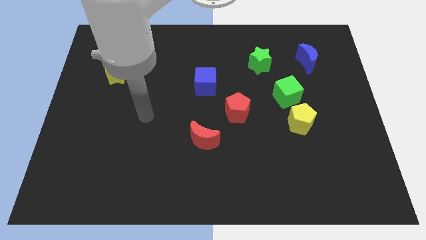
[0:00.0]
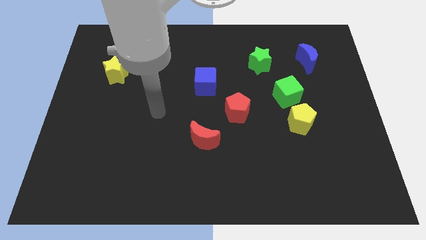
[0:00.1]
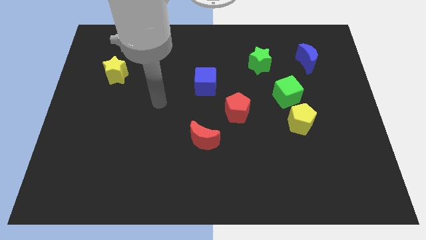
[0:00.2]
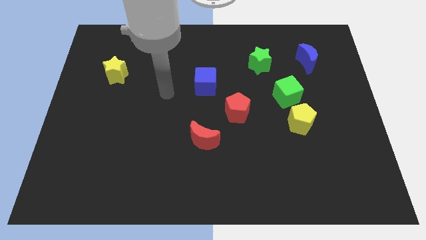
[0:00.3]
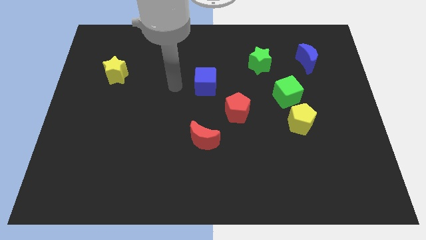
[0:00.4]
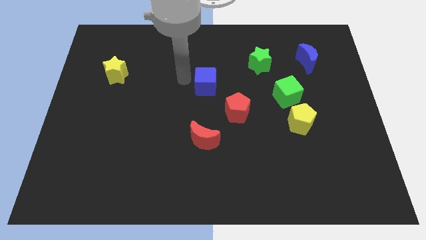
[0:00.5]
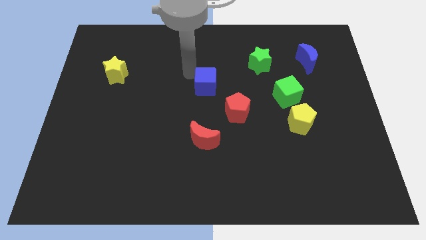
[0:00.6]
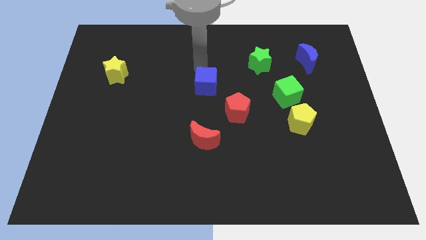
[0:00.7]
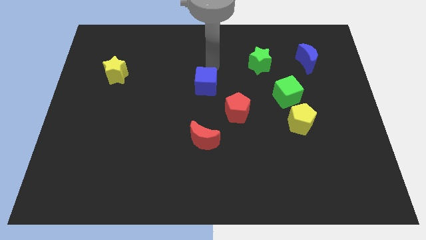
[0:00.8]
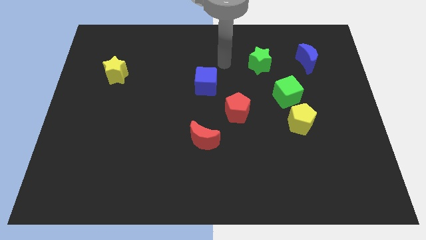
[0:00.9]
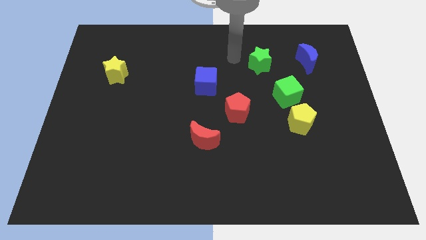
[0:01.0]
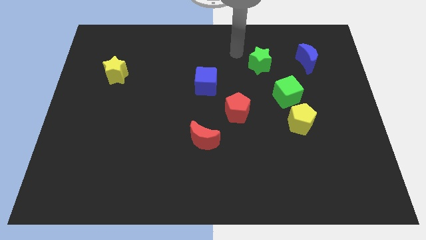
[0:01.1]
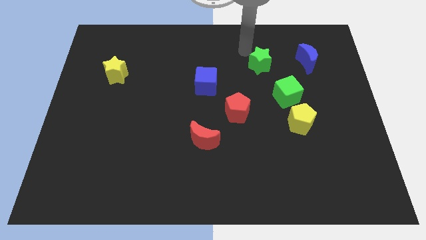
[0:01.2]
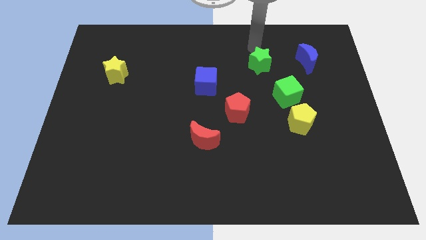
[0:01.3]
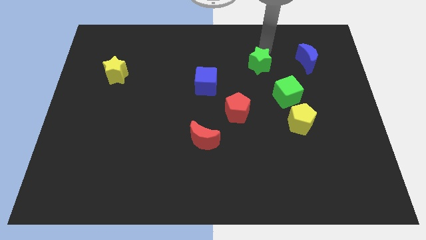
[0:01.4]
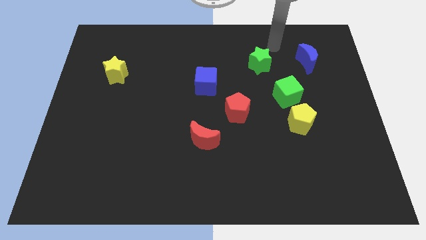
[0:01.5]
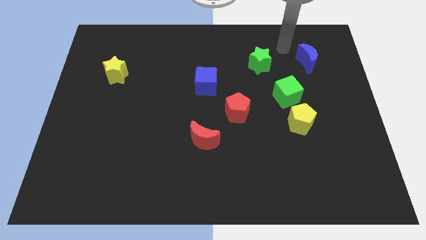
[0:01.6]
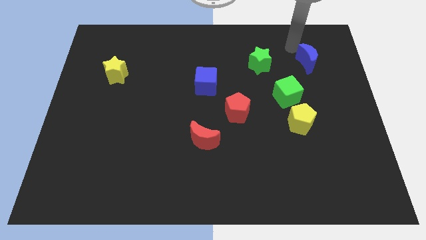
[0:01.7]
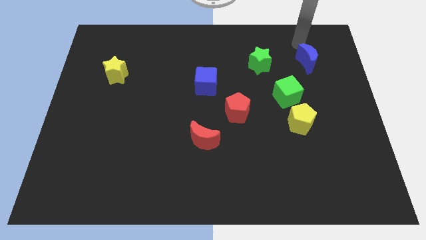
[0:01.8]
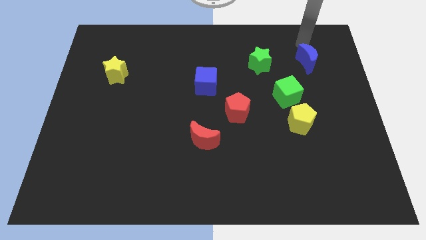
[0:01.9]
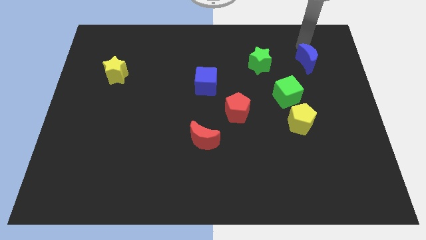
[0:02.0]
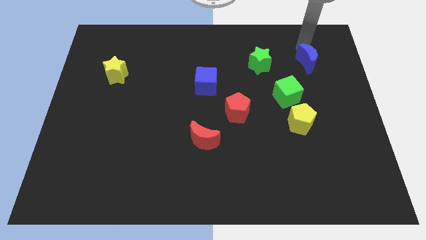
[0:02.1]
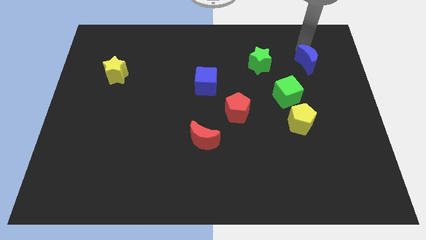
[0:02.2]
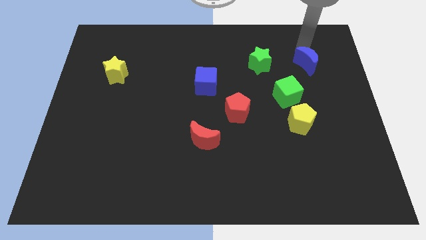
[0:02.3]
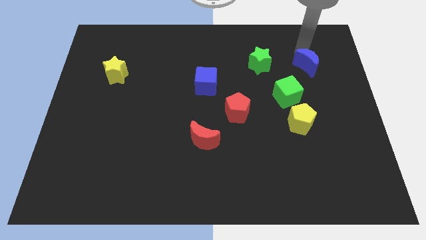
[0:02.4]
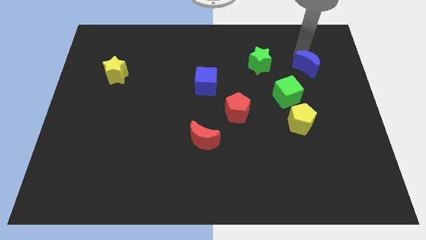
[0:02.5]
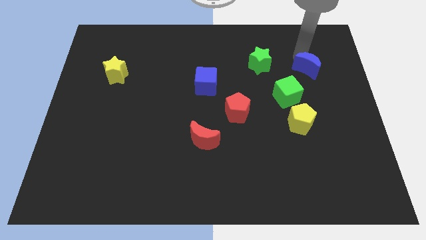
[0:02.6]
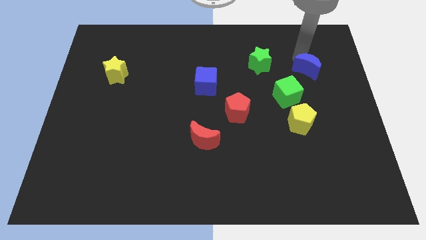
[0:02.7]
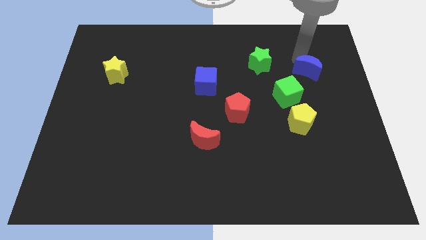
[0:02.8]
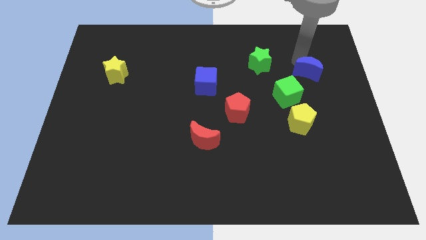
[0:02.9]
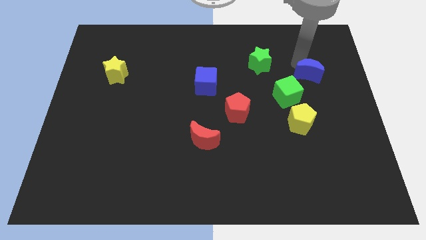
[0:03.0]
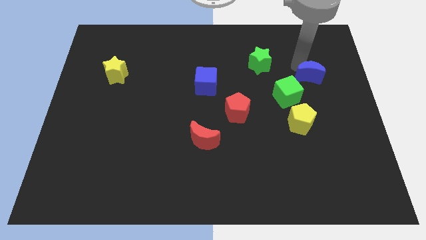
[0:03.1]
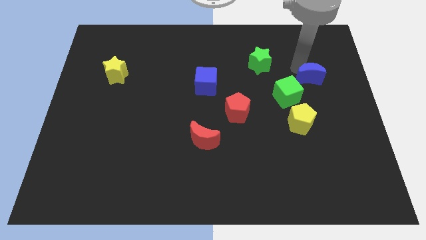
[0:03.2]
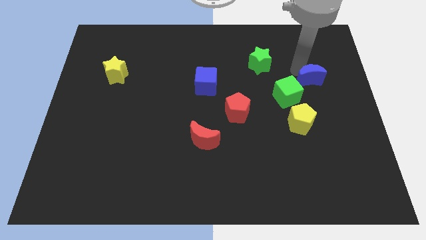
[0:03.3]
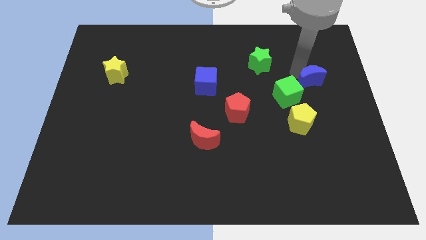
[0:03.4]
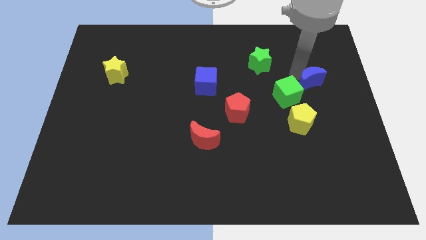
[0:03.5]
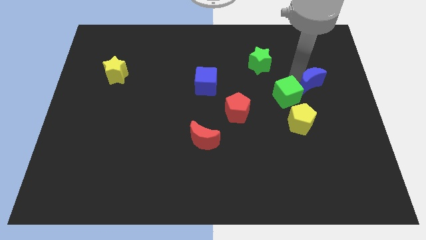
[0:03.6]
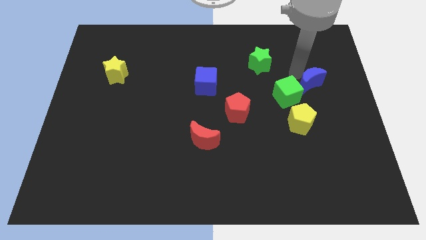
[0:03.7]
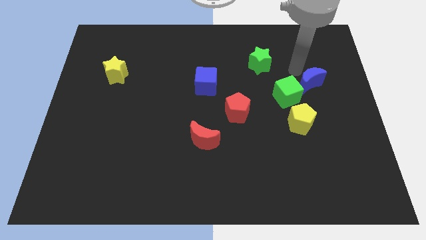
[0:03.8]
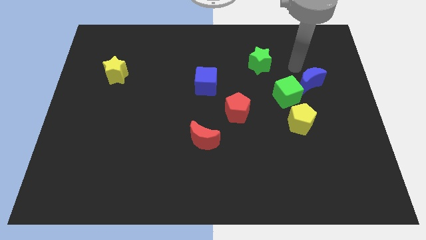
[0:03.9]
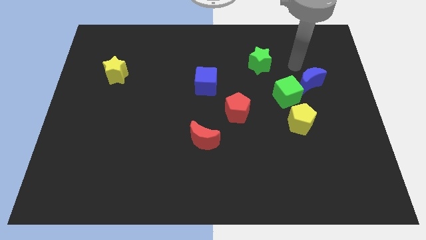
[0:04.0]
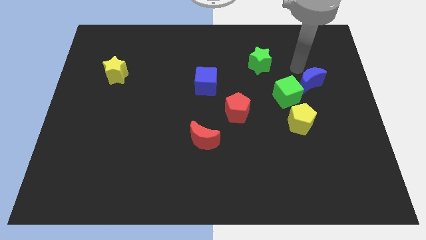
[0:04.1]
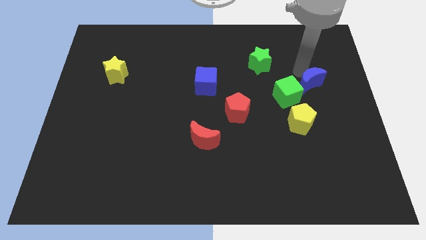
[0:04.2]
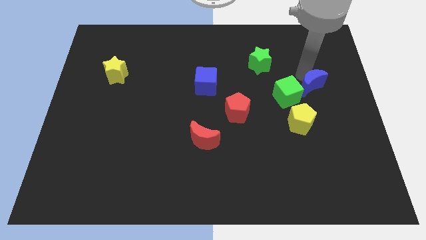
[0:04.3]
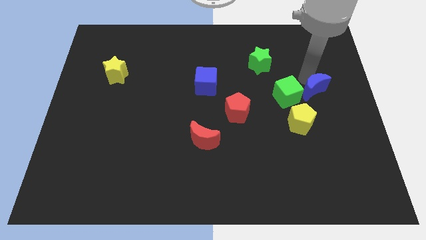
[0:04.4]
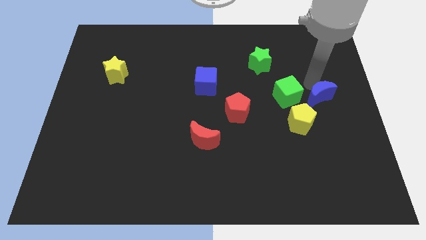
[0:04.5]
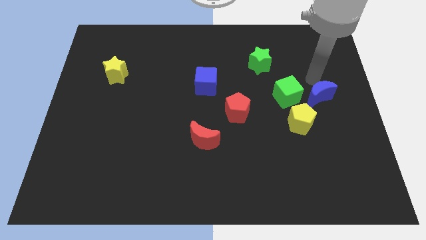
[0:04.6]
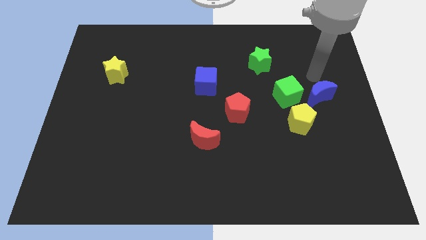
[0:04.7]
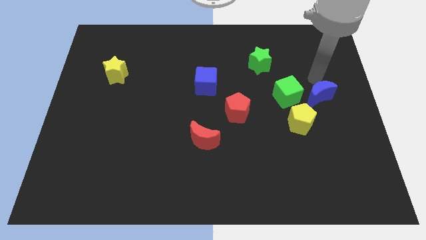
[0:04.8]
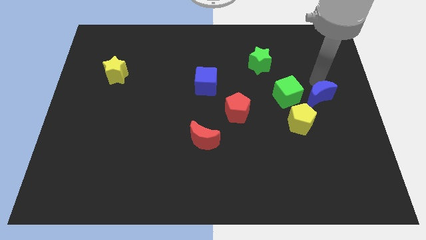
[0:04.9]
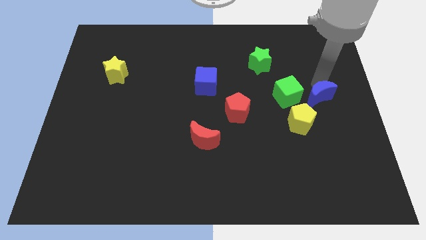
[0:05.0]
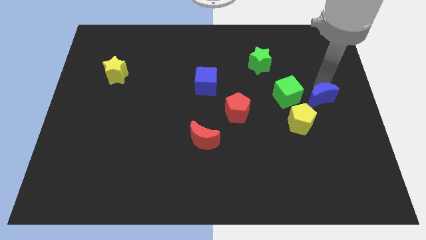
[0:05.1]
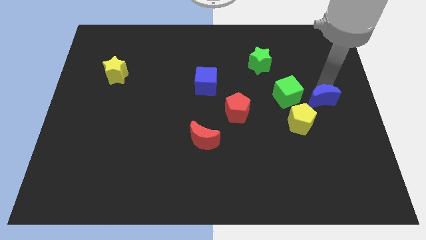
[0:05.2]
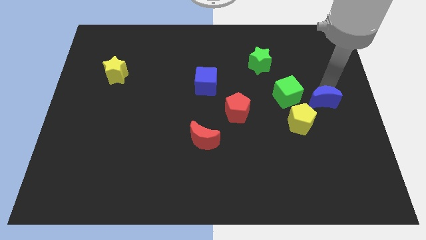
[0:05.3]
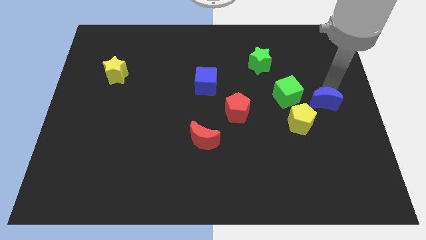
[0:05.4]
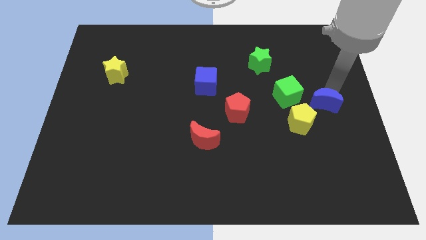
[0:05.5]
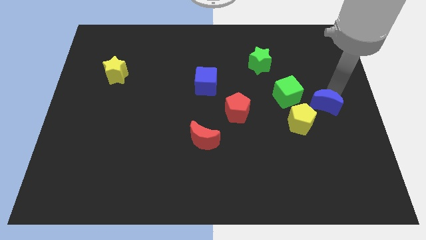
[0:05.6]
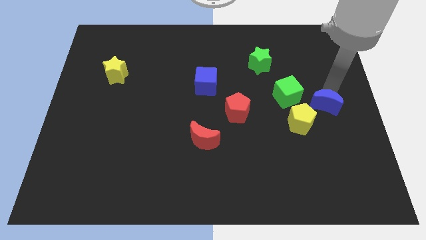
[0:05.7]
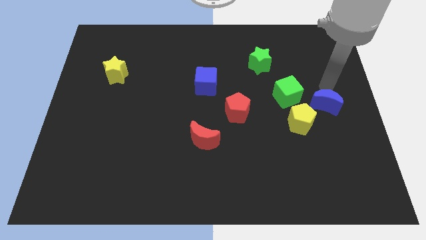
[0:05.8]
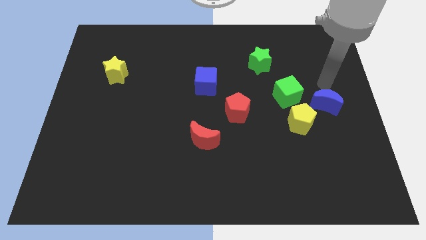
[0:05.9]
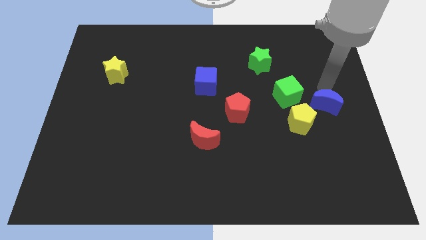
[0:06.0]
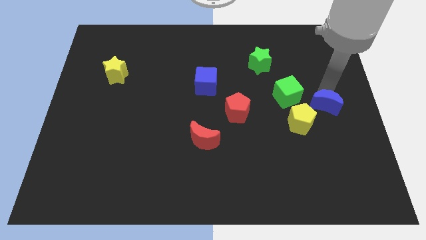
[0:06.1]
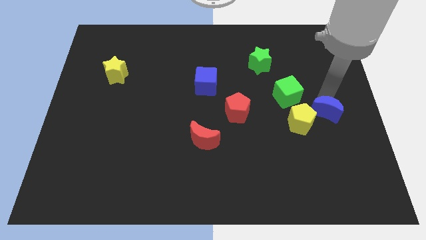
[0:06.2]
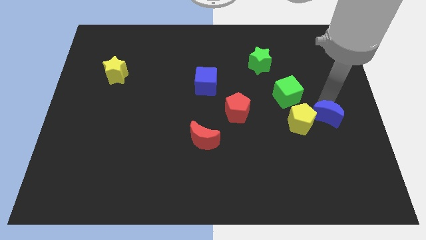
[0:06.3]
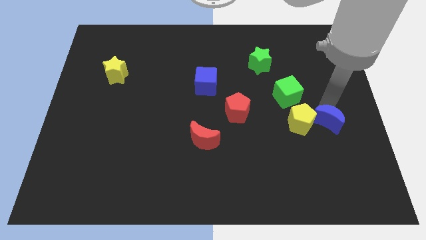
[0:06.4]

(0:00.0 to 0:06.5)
move the blue moon to the bottom right of the yellow pentagon

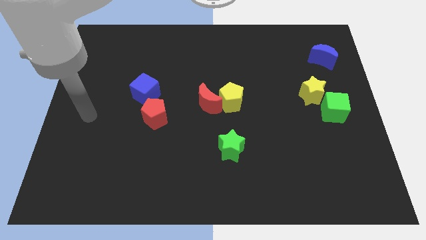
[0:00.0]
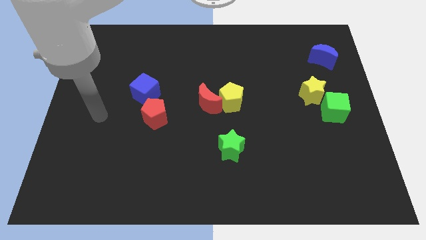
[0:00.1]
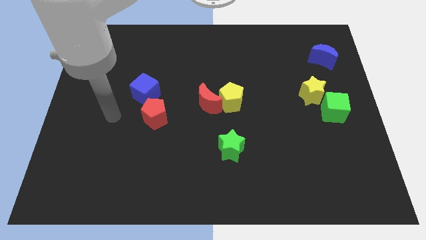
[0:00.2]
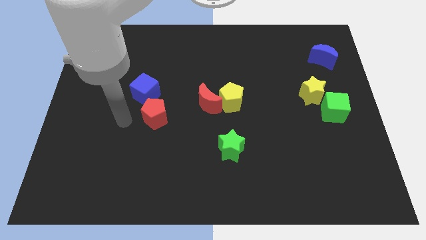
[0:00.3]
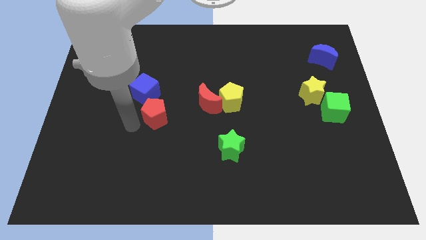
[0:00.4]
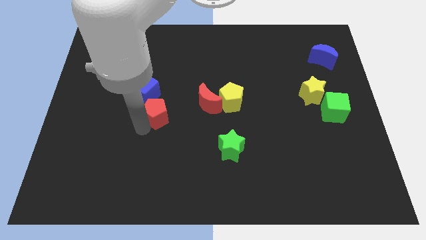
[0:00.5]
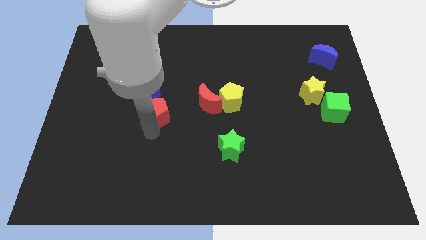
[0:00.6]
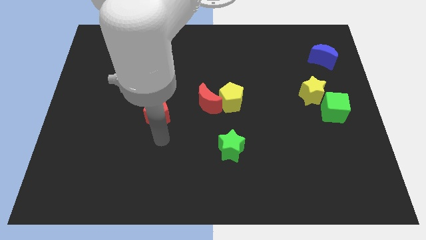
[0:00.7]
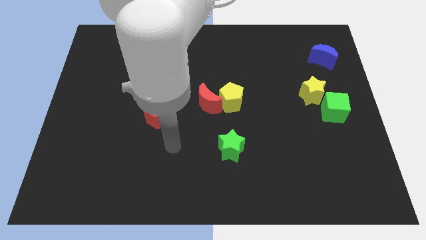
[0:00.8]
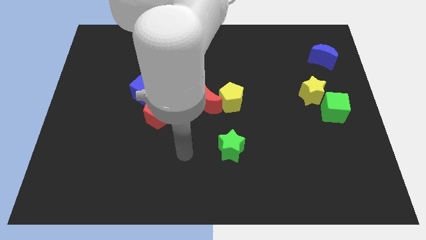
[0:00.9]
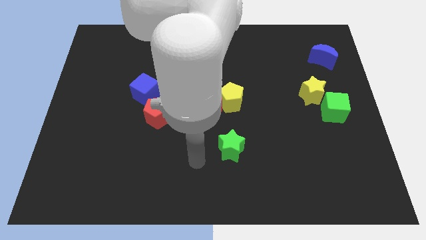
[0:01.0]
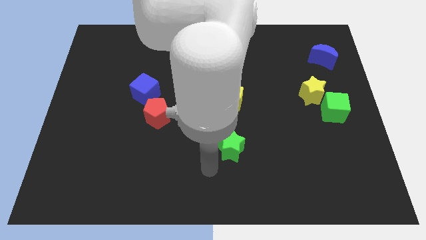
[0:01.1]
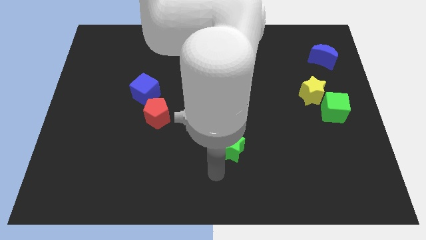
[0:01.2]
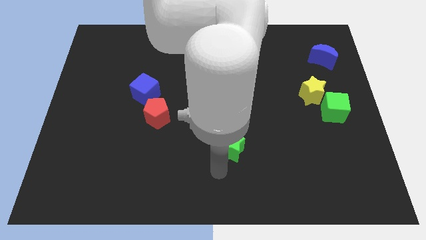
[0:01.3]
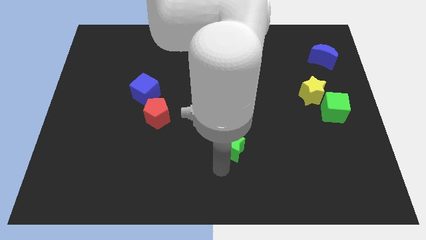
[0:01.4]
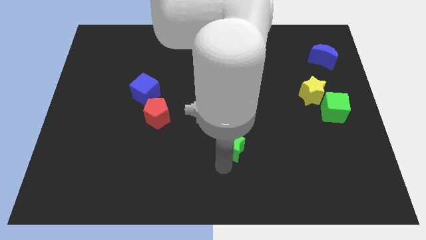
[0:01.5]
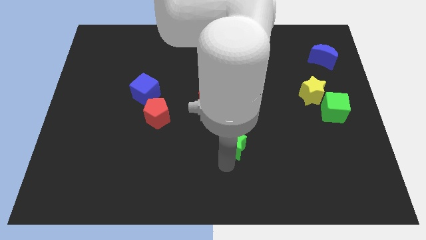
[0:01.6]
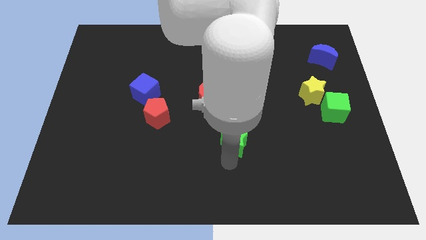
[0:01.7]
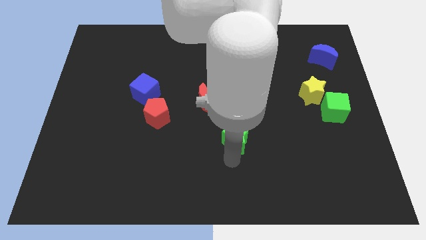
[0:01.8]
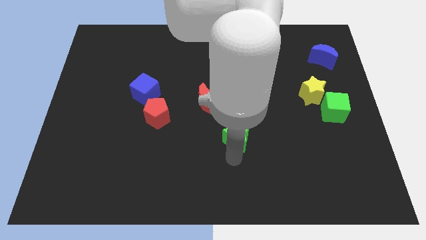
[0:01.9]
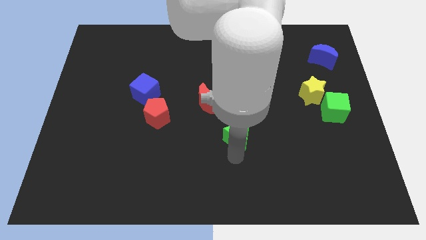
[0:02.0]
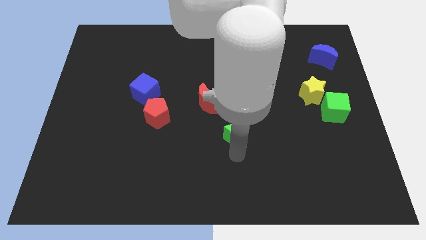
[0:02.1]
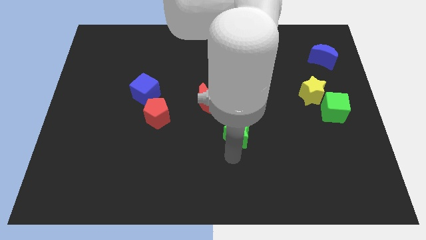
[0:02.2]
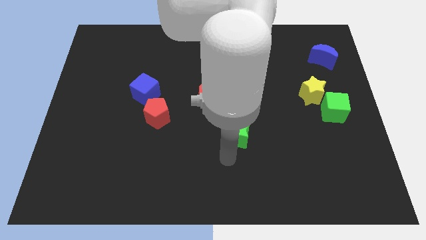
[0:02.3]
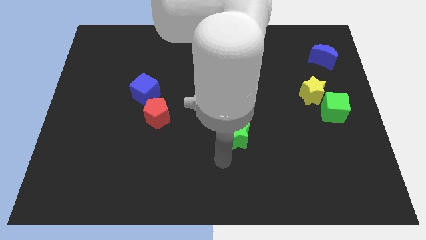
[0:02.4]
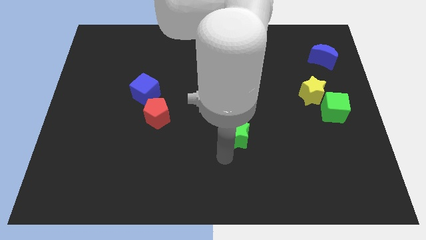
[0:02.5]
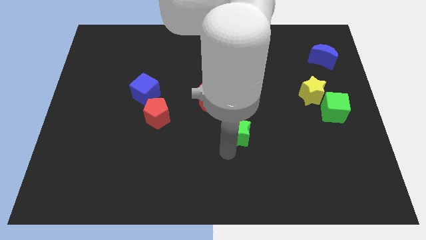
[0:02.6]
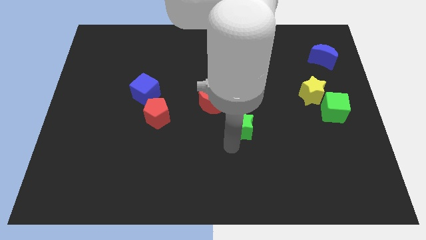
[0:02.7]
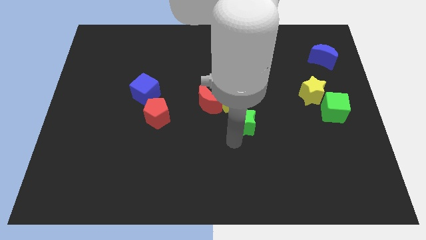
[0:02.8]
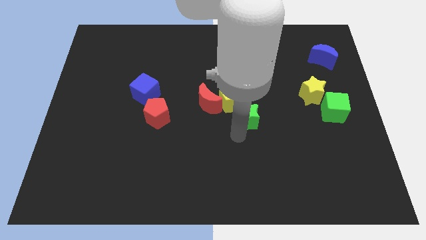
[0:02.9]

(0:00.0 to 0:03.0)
slide the green star to the right side of the red moon
